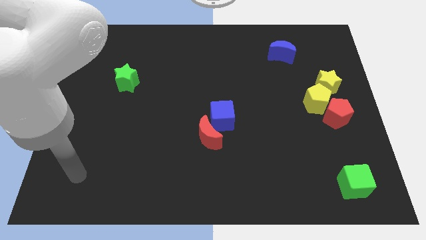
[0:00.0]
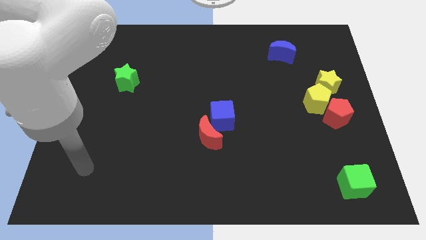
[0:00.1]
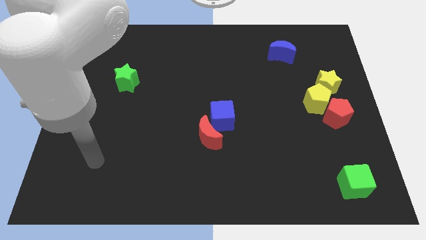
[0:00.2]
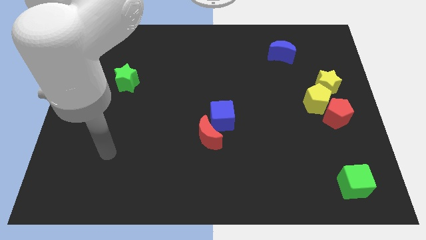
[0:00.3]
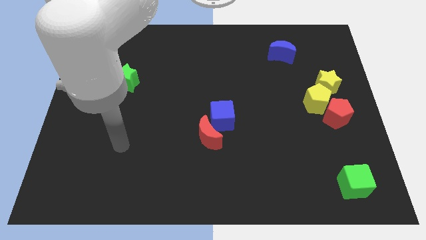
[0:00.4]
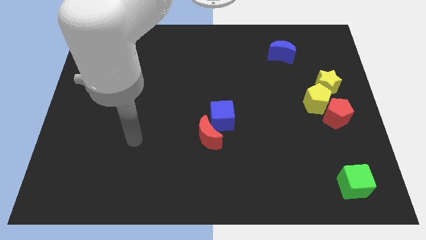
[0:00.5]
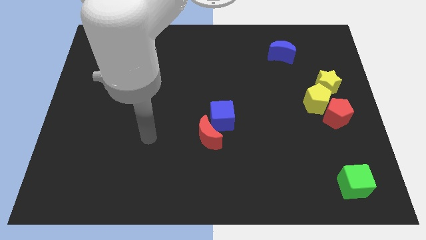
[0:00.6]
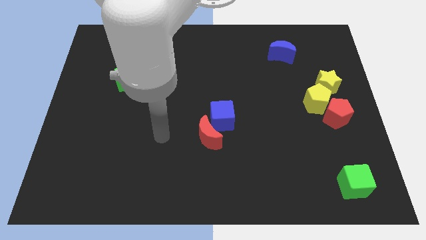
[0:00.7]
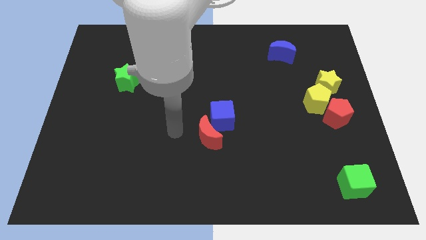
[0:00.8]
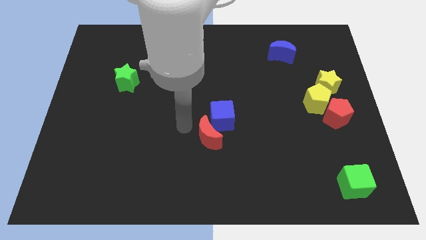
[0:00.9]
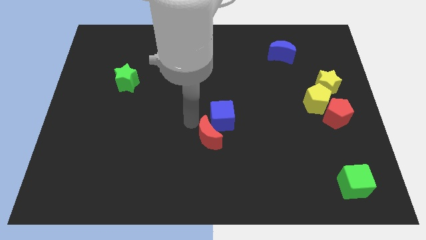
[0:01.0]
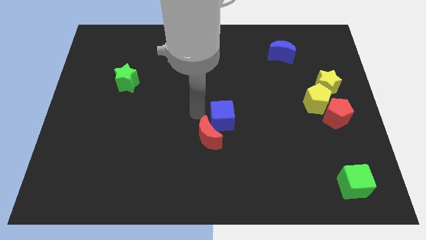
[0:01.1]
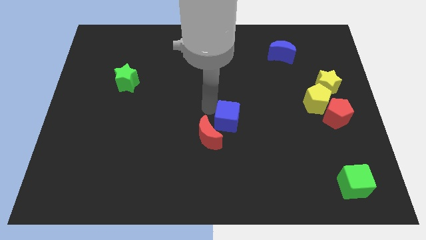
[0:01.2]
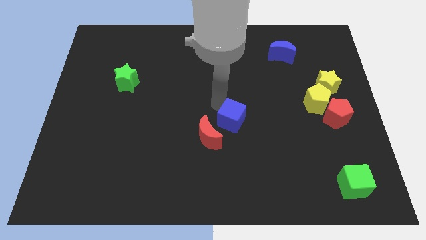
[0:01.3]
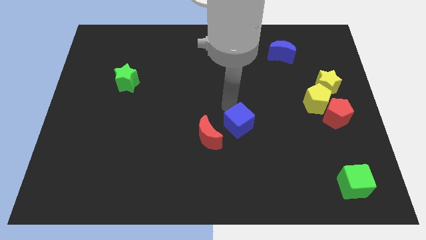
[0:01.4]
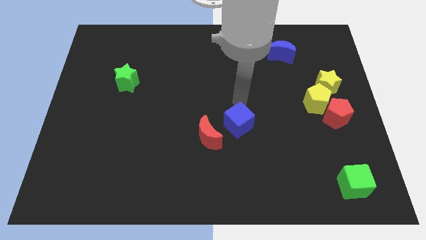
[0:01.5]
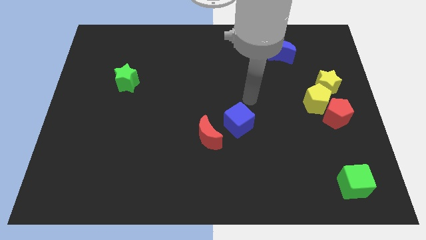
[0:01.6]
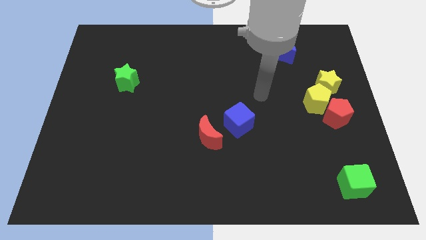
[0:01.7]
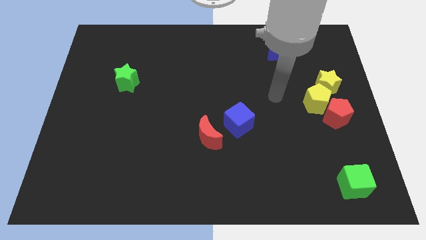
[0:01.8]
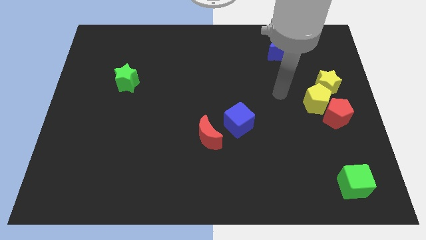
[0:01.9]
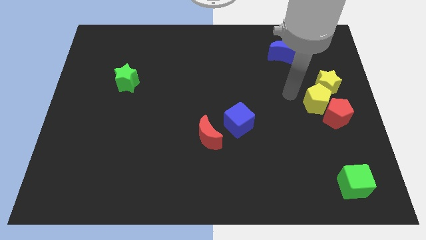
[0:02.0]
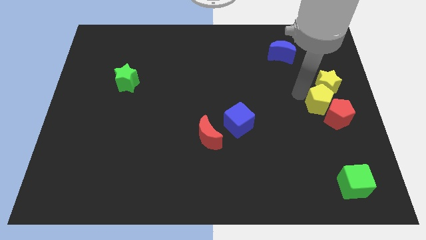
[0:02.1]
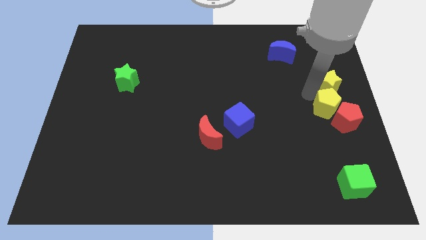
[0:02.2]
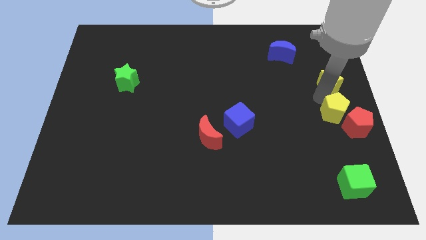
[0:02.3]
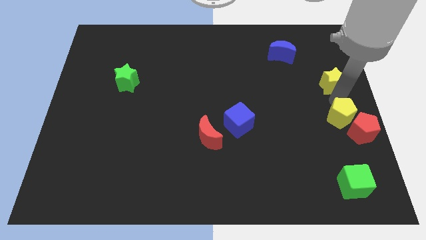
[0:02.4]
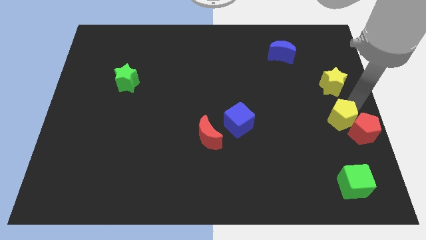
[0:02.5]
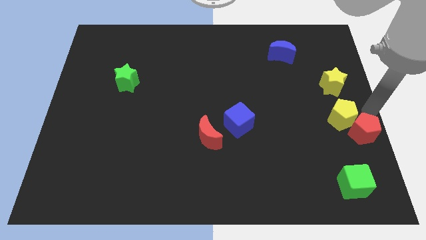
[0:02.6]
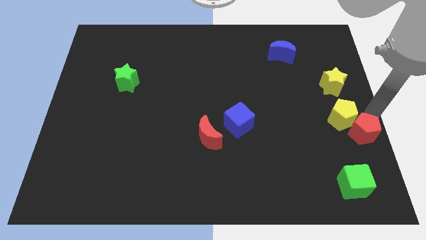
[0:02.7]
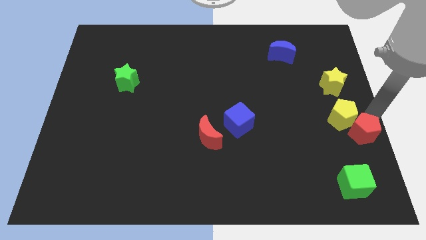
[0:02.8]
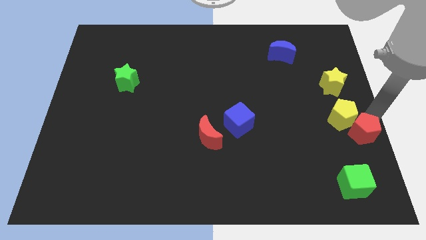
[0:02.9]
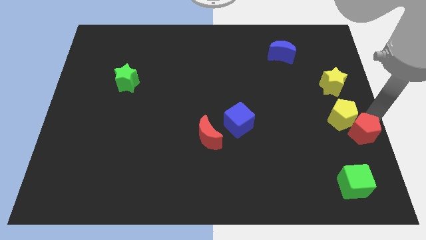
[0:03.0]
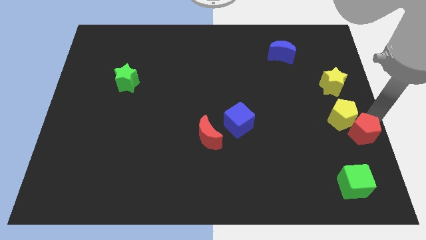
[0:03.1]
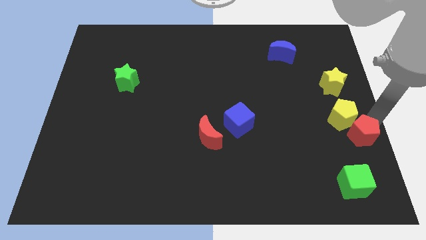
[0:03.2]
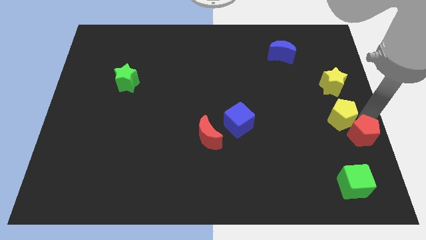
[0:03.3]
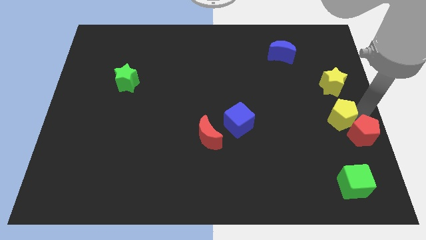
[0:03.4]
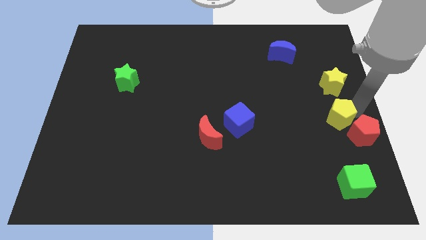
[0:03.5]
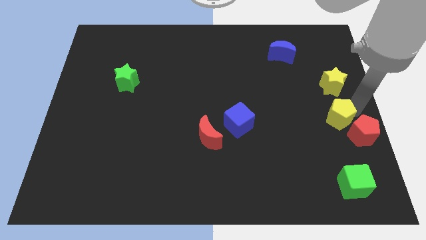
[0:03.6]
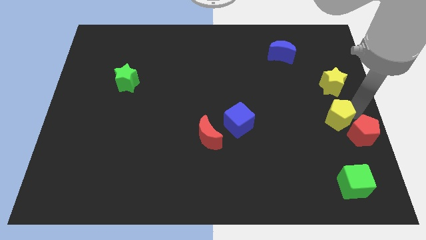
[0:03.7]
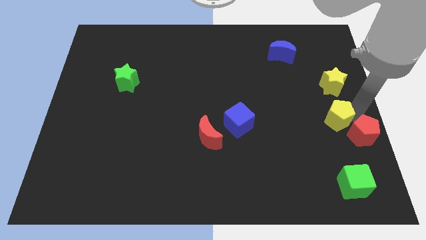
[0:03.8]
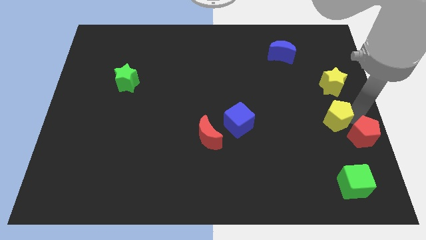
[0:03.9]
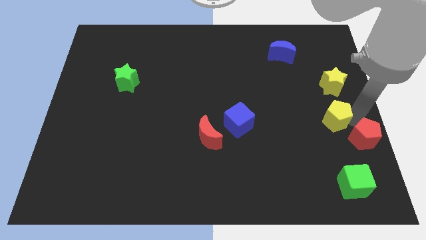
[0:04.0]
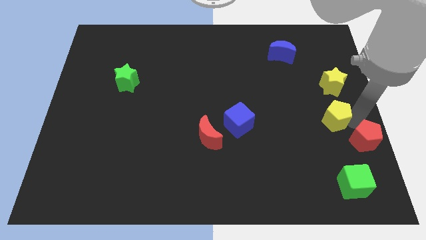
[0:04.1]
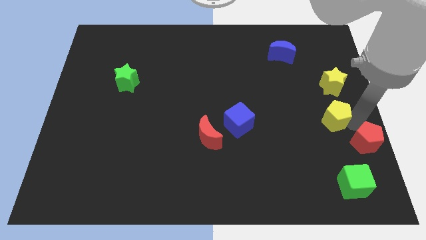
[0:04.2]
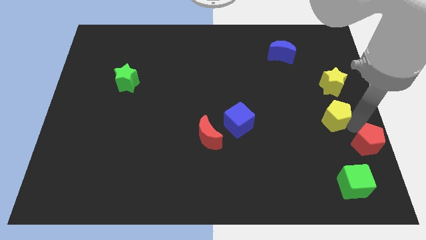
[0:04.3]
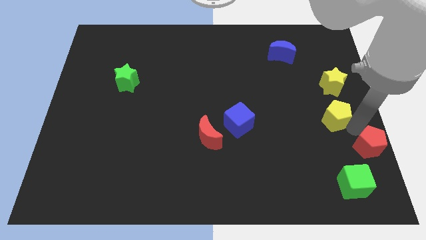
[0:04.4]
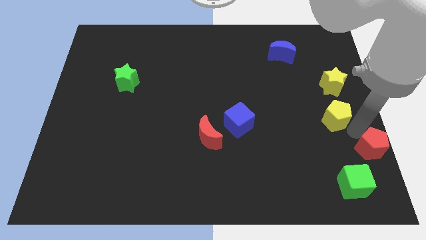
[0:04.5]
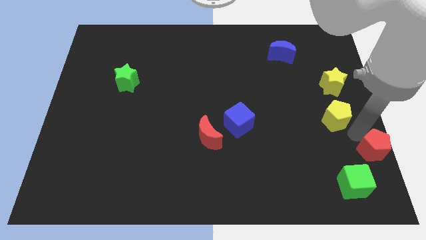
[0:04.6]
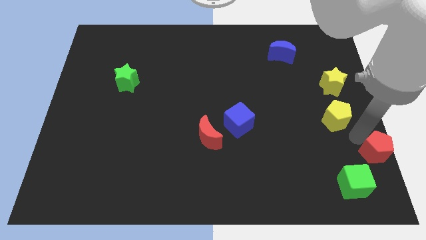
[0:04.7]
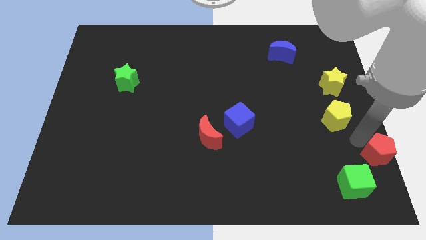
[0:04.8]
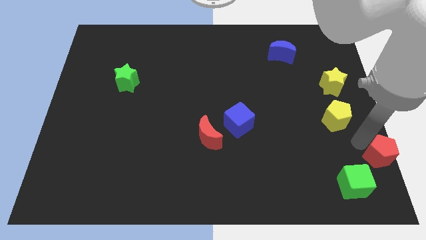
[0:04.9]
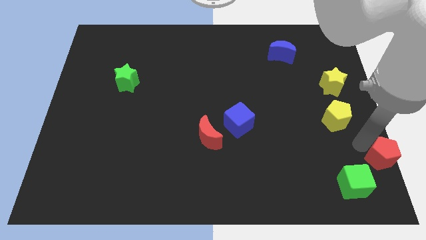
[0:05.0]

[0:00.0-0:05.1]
move the red pentagon to the bottom right corner

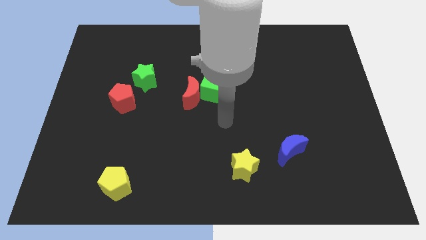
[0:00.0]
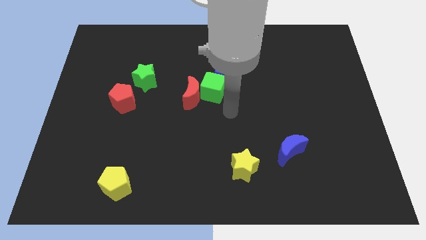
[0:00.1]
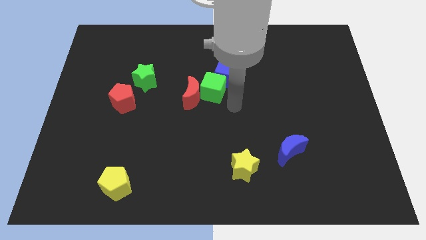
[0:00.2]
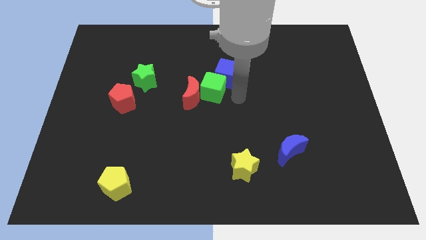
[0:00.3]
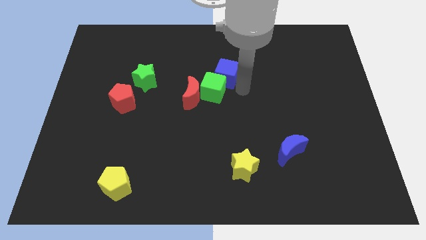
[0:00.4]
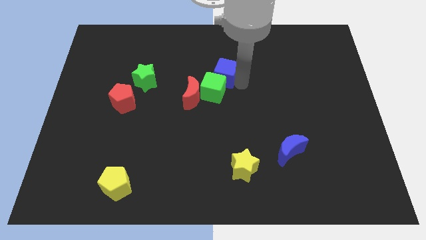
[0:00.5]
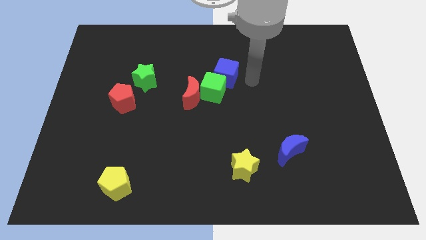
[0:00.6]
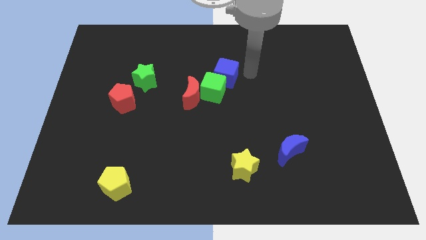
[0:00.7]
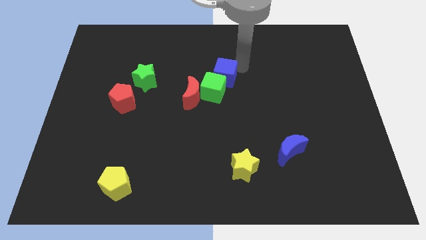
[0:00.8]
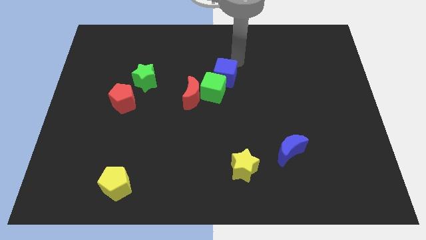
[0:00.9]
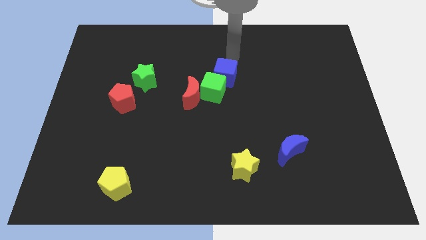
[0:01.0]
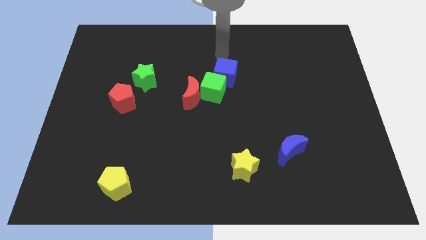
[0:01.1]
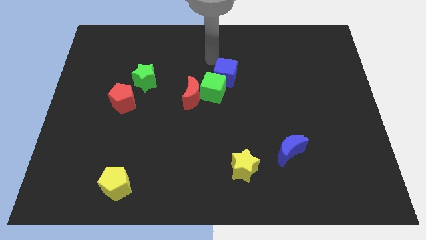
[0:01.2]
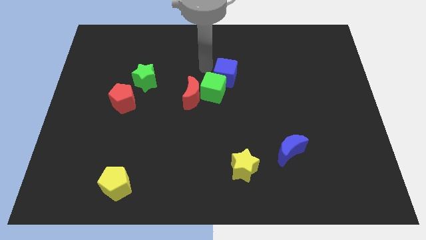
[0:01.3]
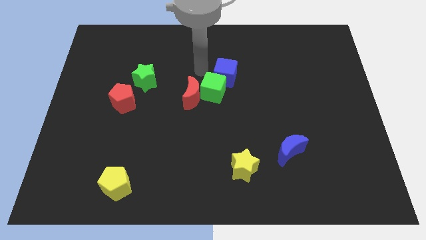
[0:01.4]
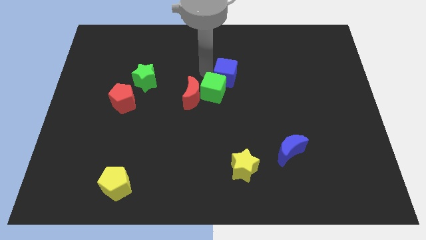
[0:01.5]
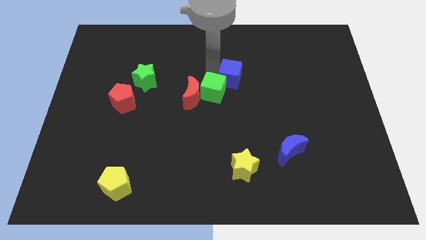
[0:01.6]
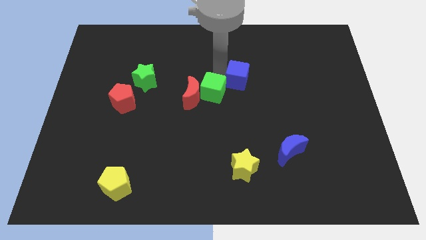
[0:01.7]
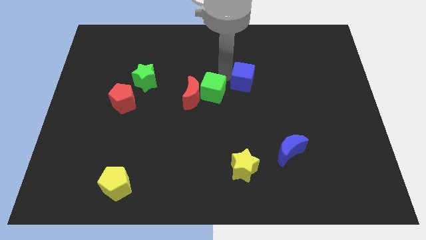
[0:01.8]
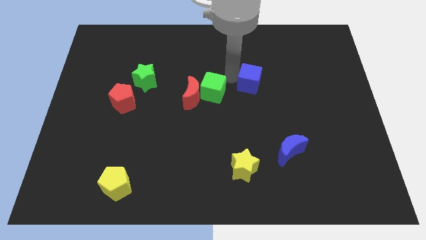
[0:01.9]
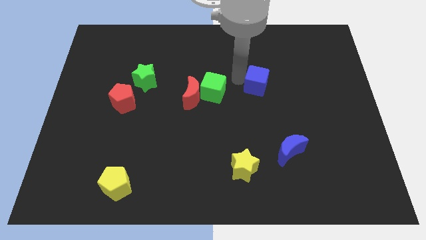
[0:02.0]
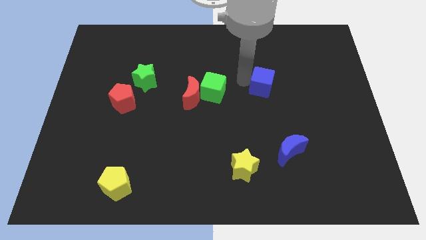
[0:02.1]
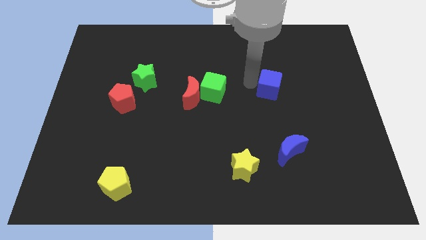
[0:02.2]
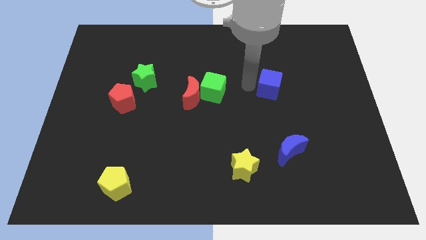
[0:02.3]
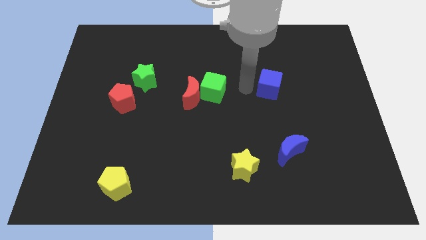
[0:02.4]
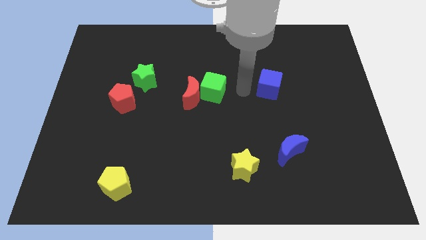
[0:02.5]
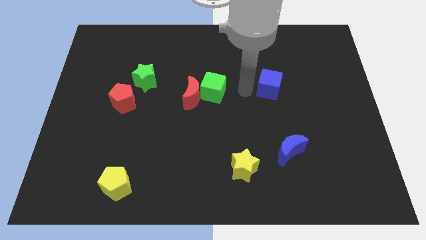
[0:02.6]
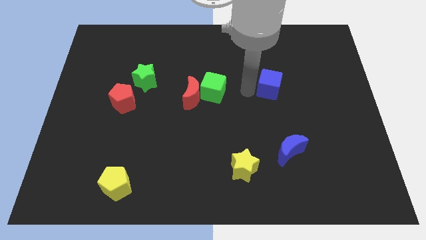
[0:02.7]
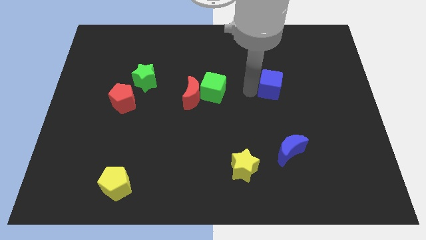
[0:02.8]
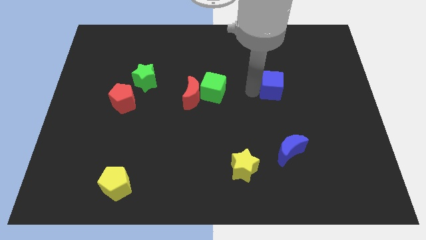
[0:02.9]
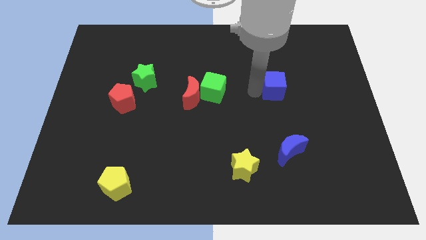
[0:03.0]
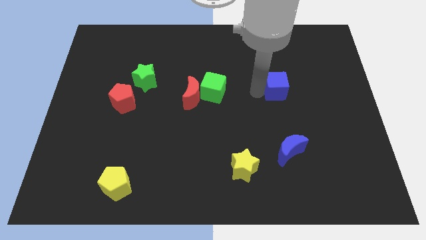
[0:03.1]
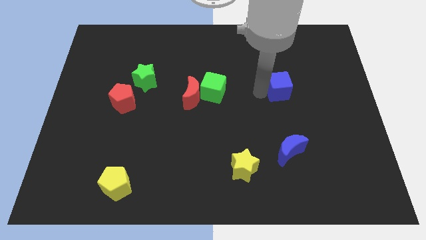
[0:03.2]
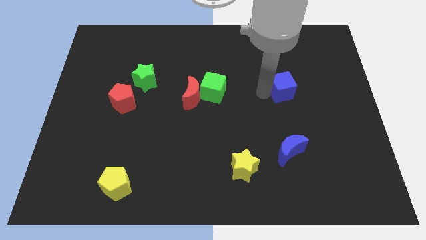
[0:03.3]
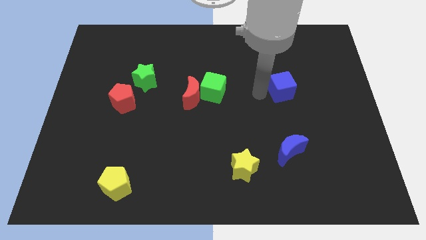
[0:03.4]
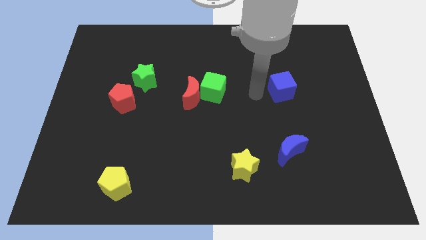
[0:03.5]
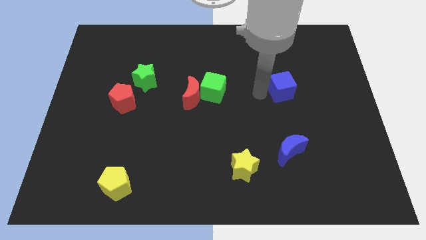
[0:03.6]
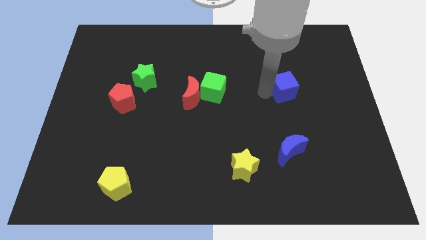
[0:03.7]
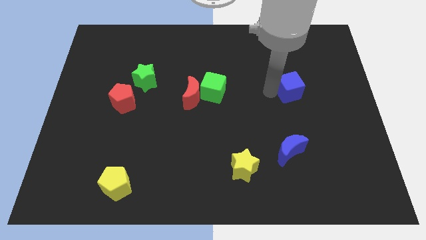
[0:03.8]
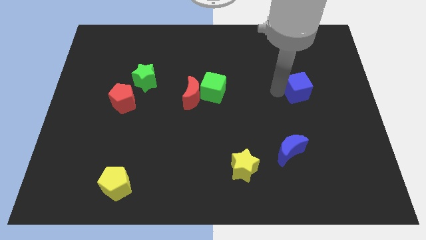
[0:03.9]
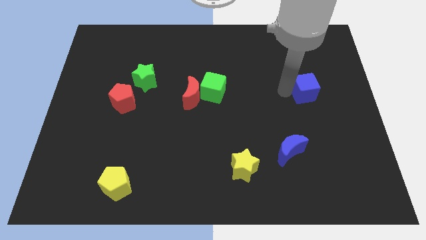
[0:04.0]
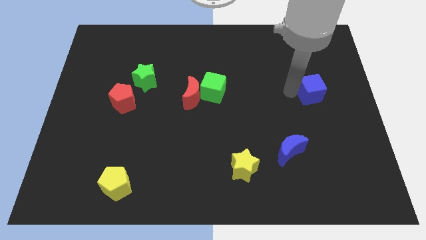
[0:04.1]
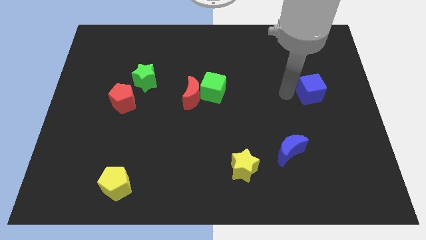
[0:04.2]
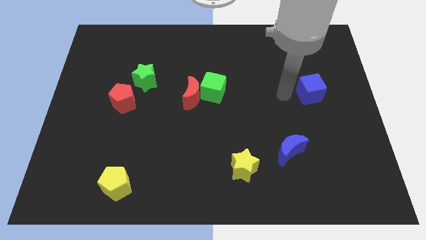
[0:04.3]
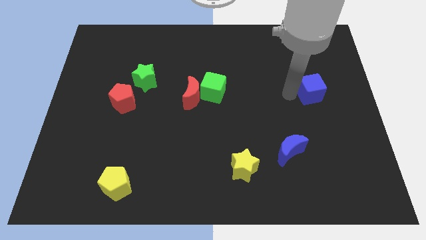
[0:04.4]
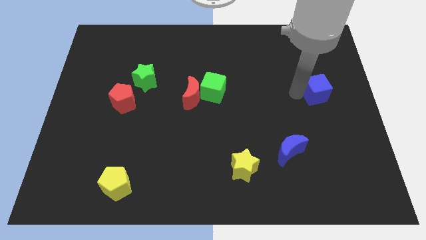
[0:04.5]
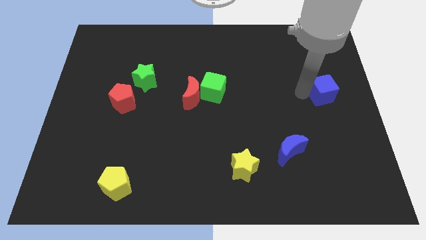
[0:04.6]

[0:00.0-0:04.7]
put the blue cube to the center right
